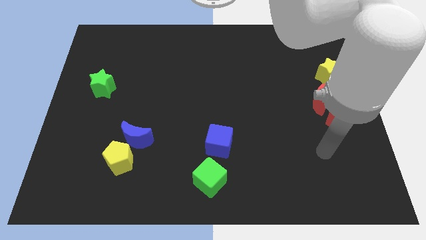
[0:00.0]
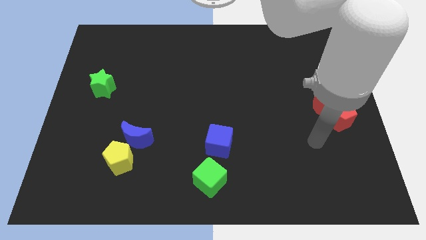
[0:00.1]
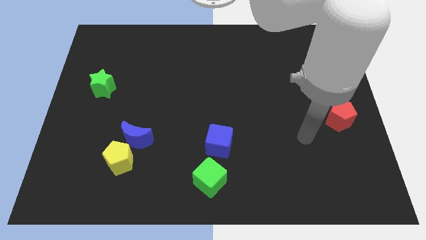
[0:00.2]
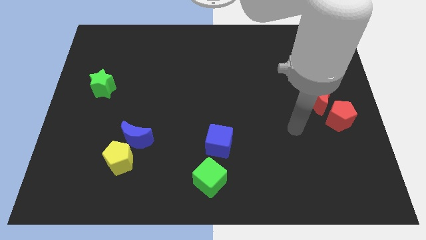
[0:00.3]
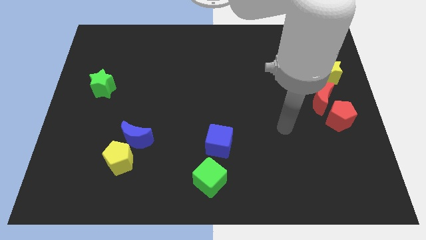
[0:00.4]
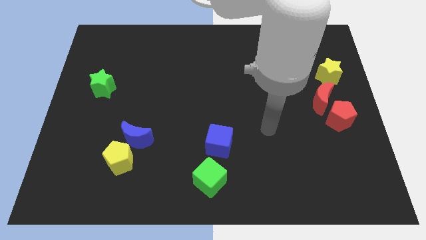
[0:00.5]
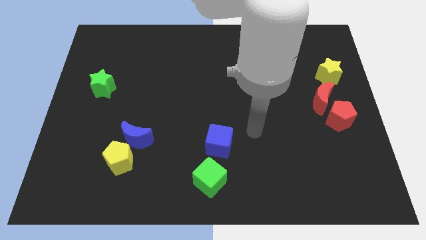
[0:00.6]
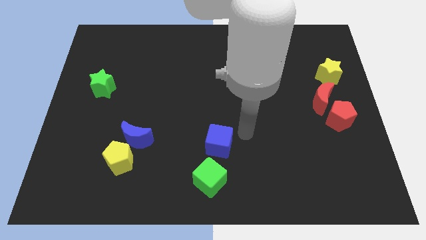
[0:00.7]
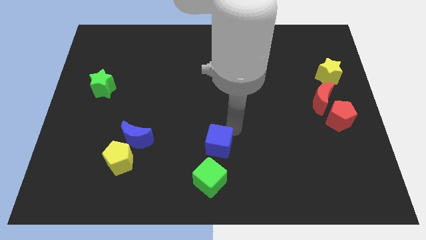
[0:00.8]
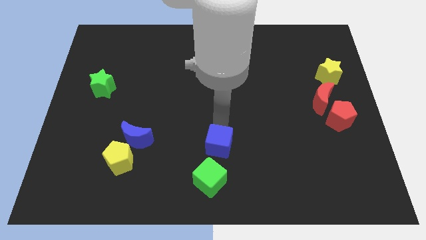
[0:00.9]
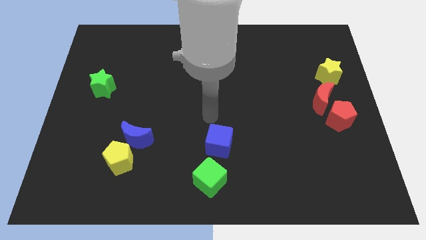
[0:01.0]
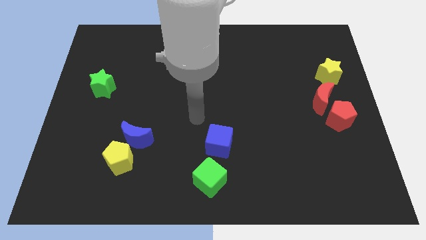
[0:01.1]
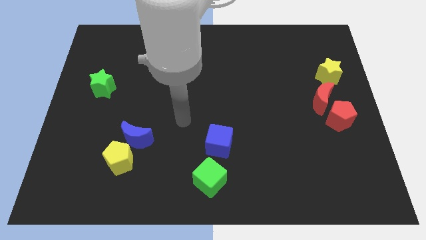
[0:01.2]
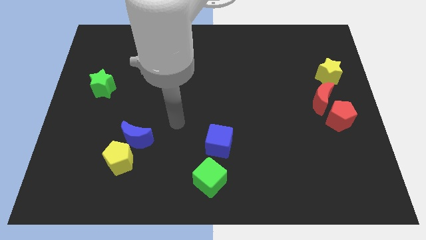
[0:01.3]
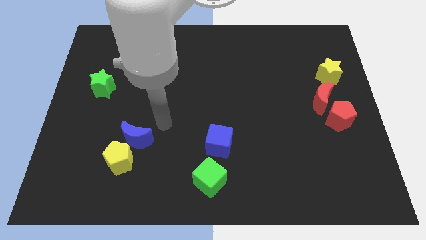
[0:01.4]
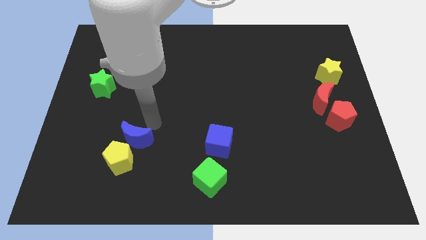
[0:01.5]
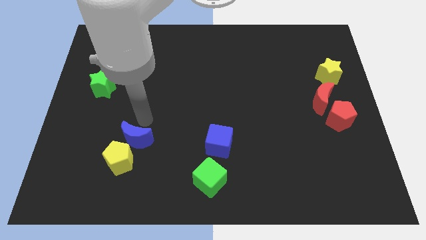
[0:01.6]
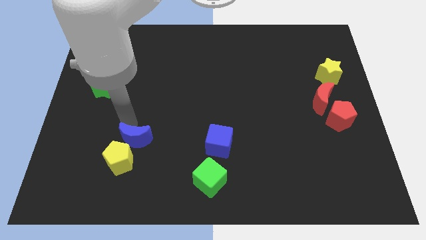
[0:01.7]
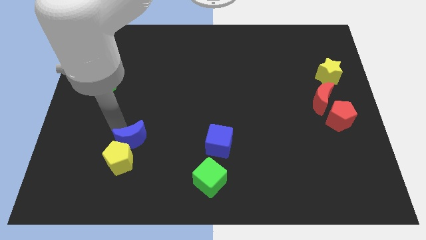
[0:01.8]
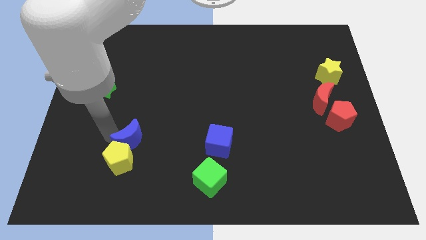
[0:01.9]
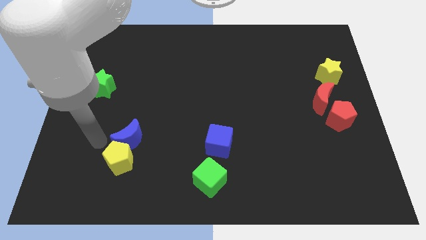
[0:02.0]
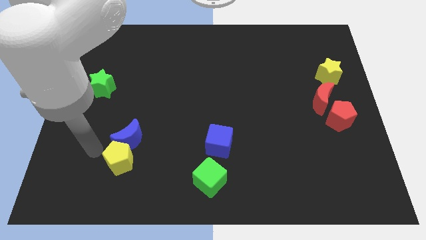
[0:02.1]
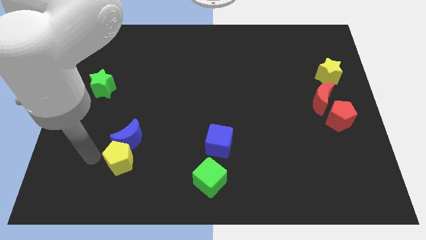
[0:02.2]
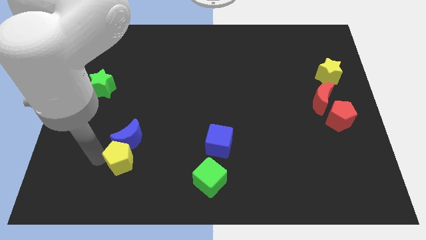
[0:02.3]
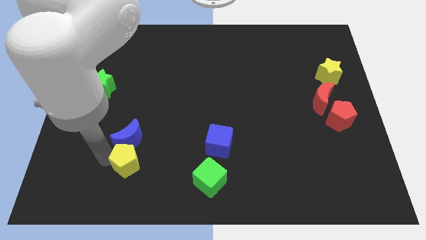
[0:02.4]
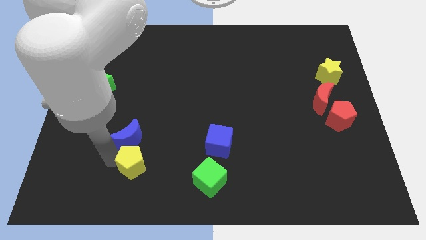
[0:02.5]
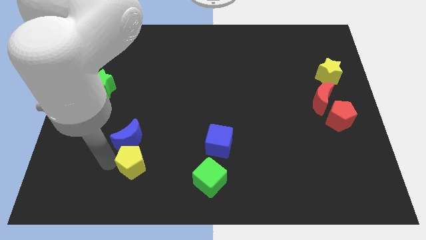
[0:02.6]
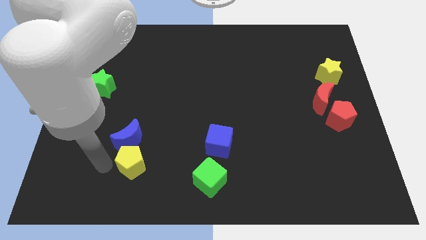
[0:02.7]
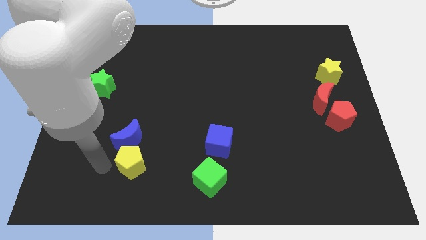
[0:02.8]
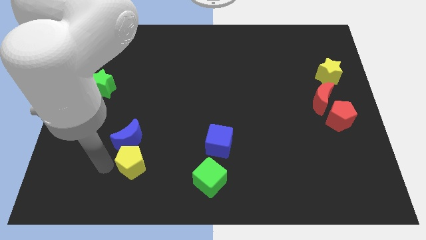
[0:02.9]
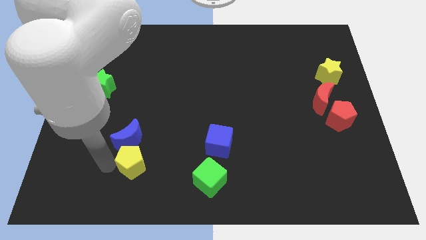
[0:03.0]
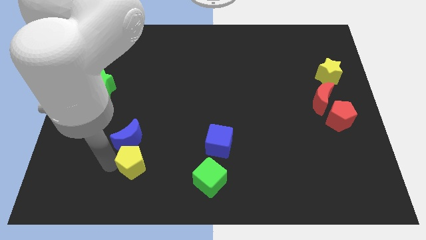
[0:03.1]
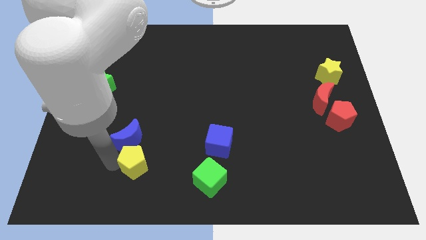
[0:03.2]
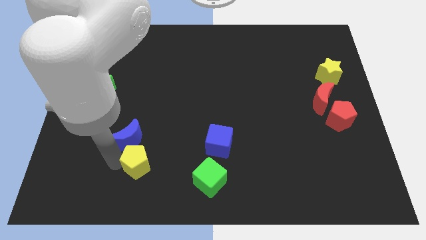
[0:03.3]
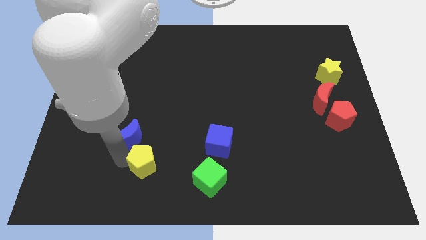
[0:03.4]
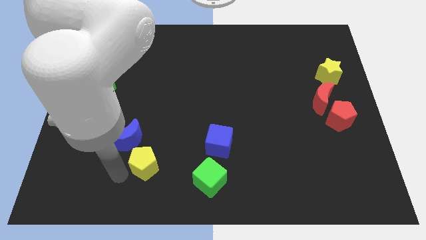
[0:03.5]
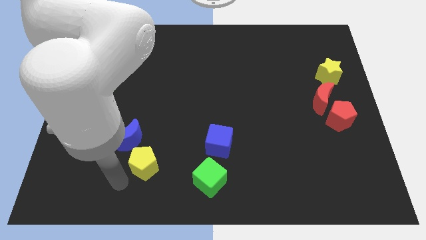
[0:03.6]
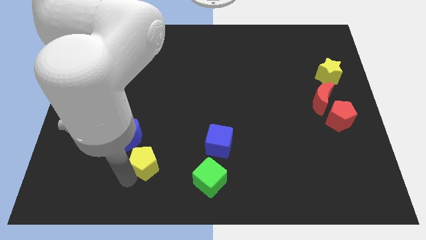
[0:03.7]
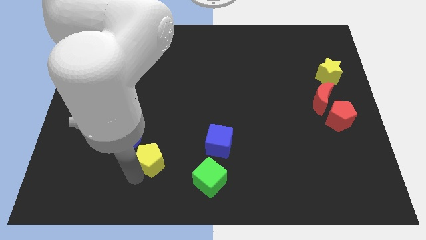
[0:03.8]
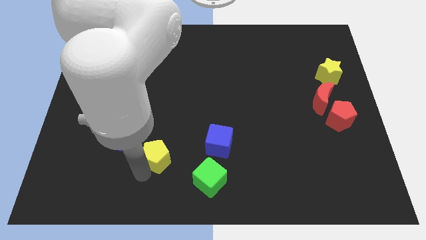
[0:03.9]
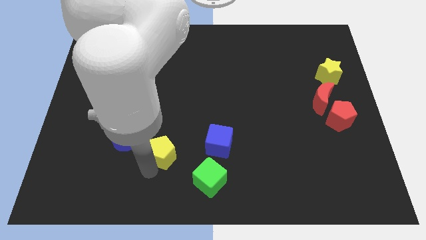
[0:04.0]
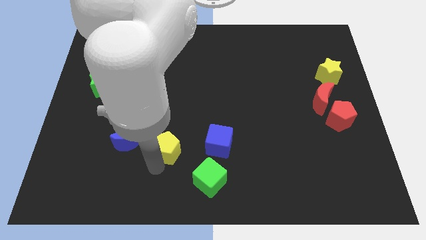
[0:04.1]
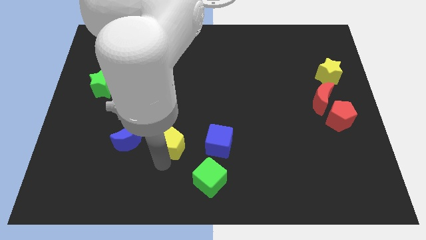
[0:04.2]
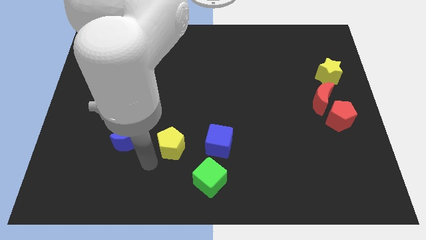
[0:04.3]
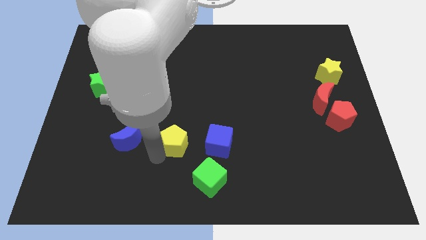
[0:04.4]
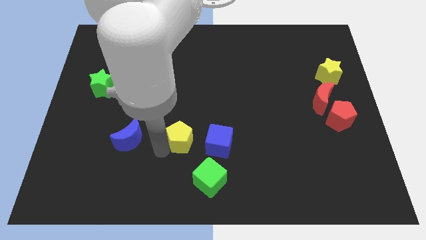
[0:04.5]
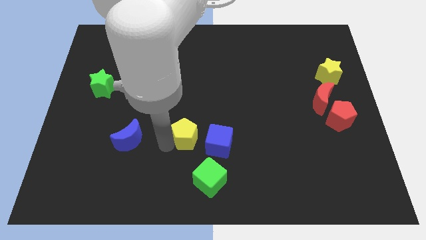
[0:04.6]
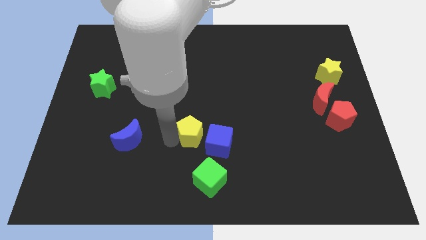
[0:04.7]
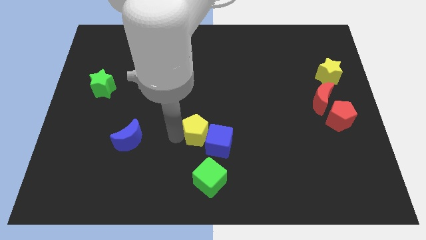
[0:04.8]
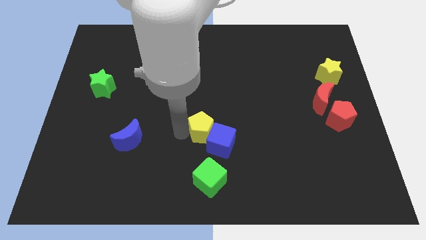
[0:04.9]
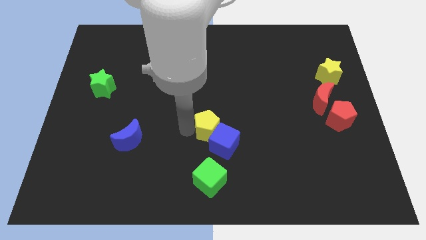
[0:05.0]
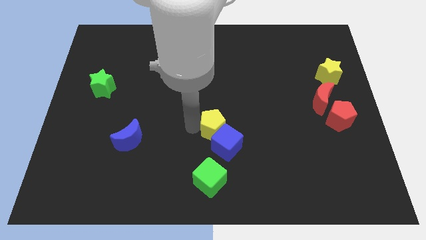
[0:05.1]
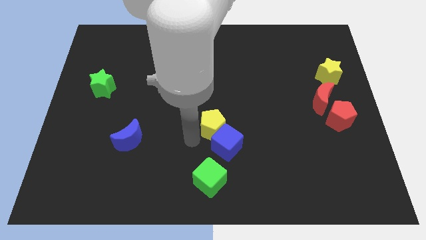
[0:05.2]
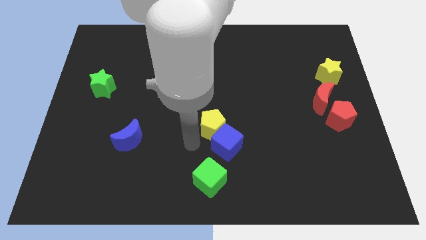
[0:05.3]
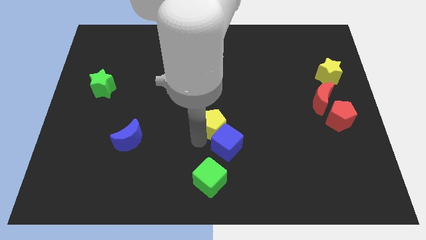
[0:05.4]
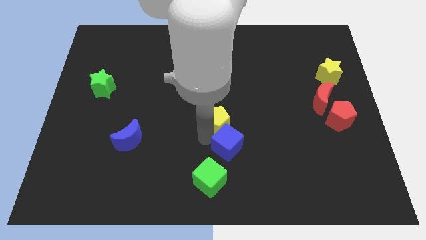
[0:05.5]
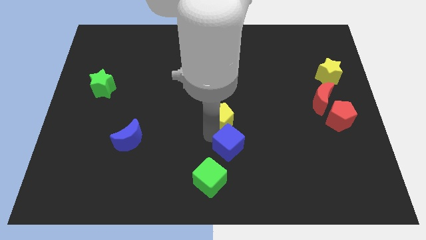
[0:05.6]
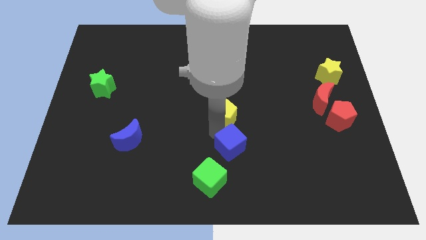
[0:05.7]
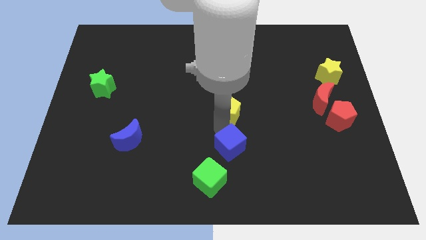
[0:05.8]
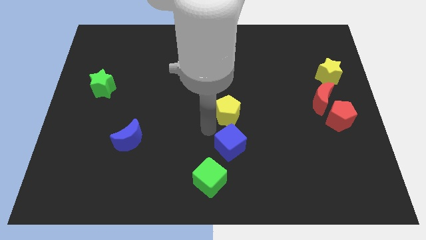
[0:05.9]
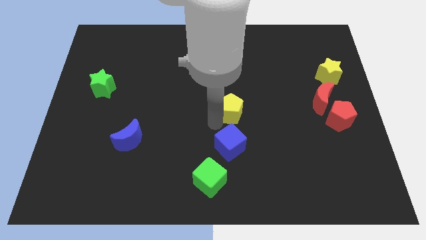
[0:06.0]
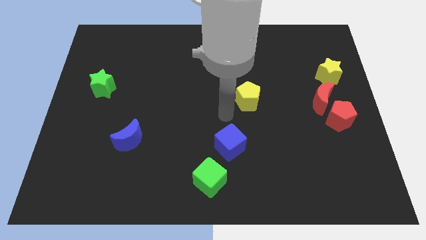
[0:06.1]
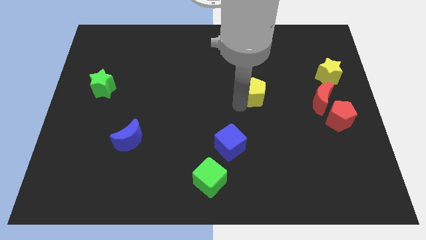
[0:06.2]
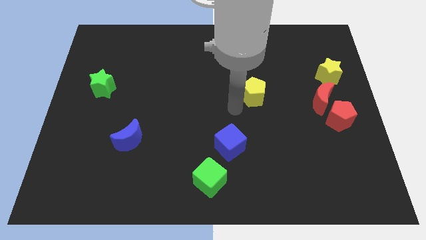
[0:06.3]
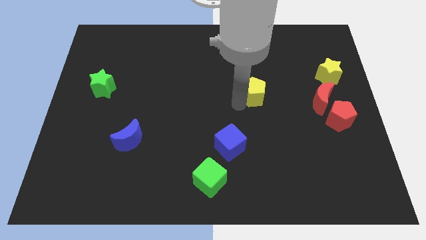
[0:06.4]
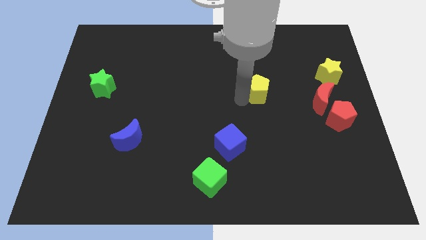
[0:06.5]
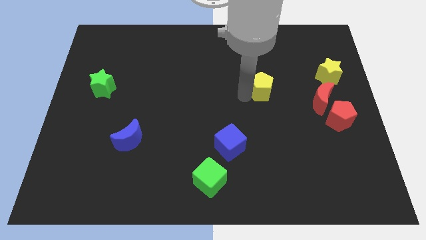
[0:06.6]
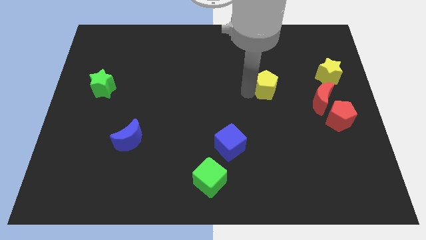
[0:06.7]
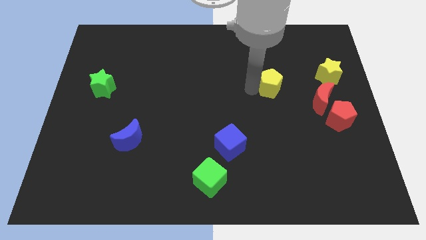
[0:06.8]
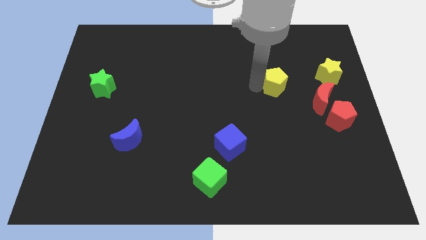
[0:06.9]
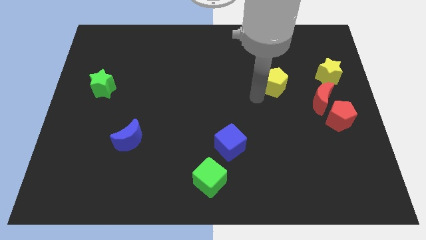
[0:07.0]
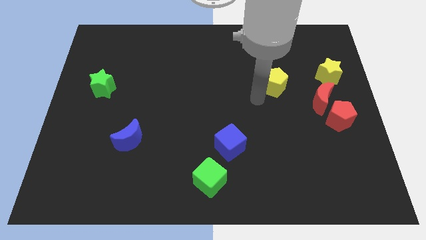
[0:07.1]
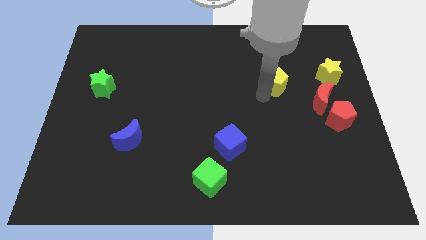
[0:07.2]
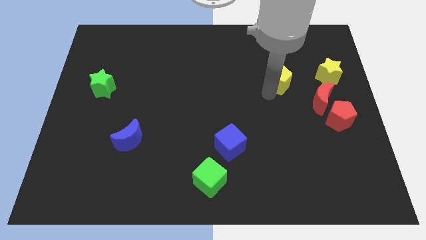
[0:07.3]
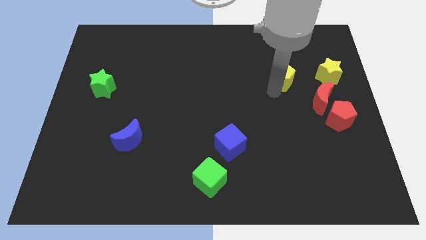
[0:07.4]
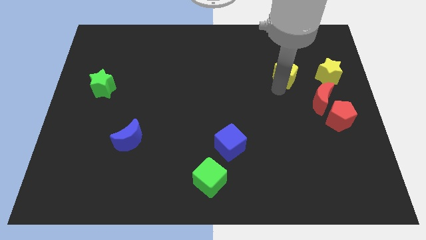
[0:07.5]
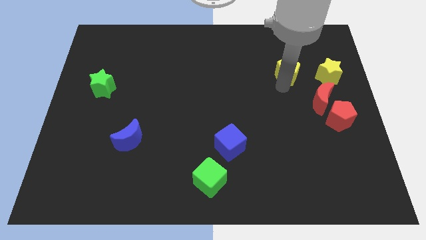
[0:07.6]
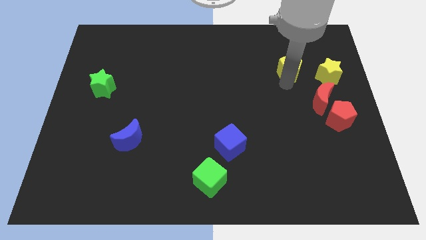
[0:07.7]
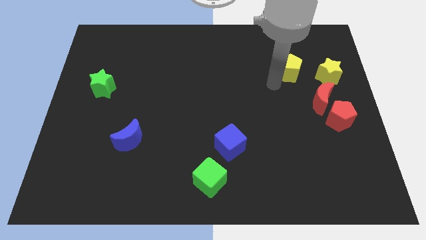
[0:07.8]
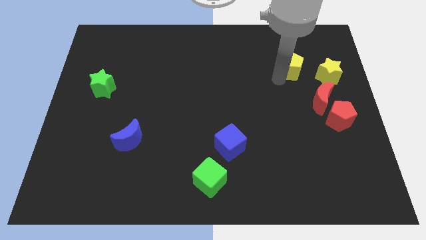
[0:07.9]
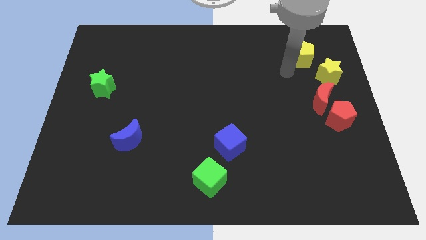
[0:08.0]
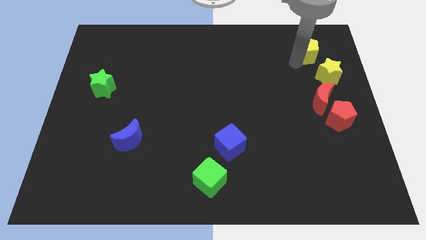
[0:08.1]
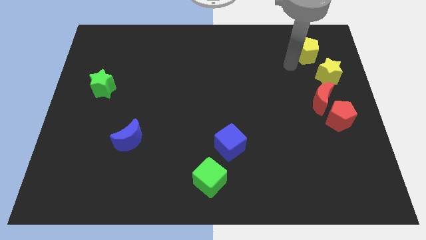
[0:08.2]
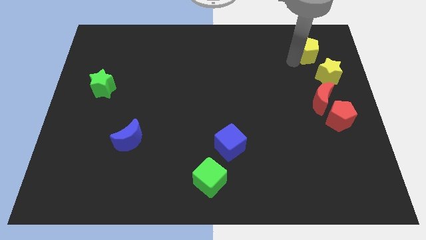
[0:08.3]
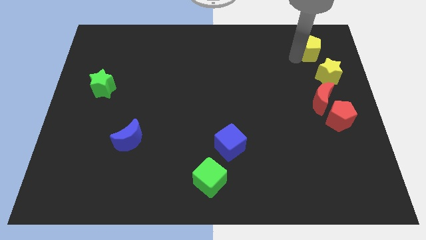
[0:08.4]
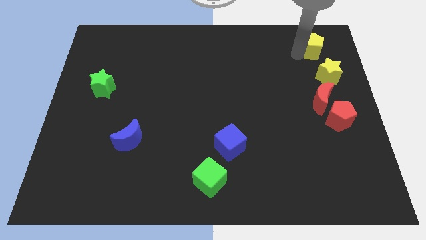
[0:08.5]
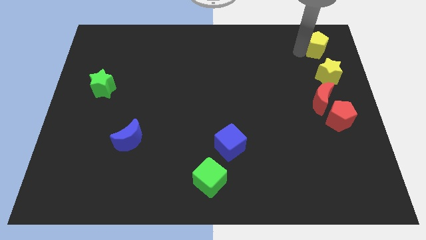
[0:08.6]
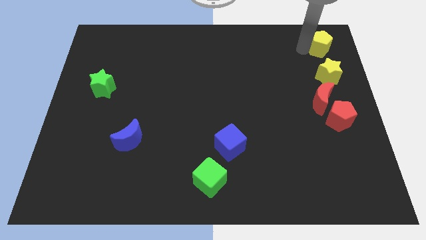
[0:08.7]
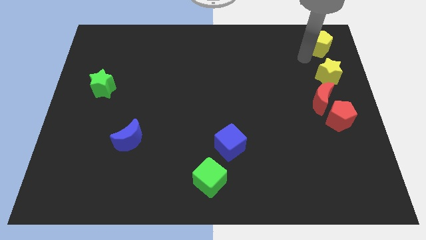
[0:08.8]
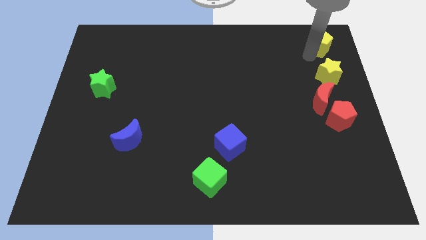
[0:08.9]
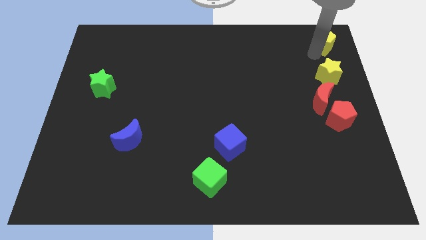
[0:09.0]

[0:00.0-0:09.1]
push the yellow pentagon to the top right of the board
